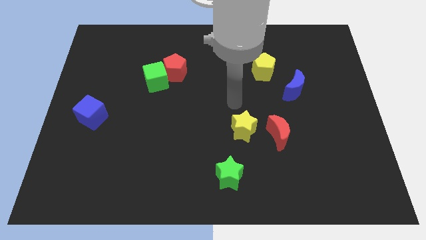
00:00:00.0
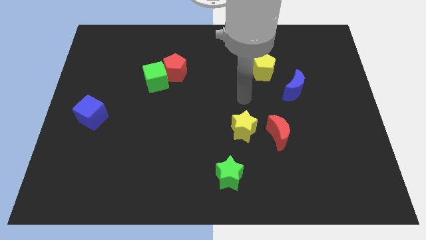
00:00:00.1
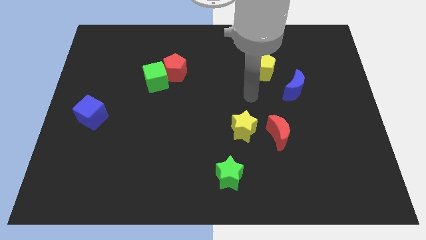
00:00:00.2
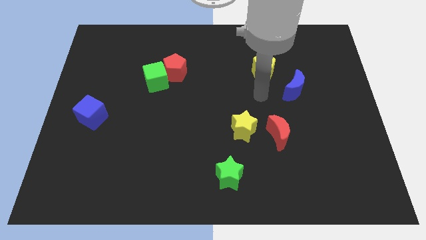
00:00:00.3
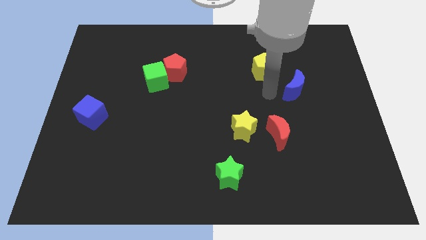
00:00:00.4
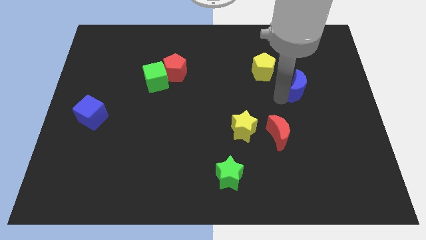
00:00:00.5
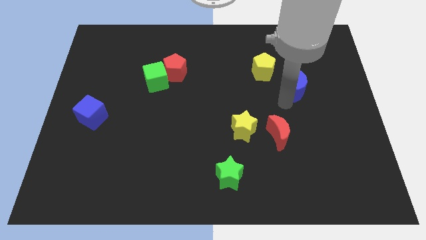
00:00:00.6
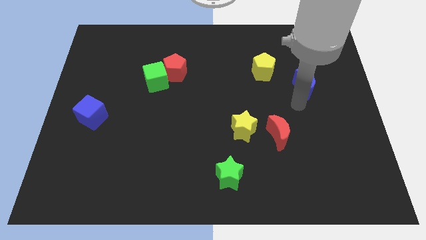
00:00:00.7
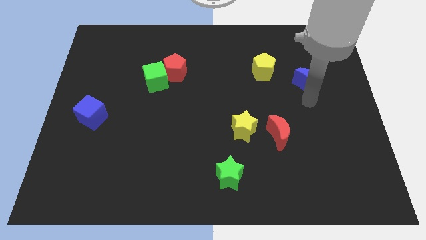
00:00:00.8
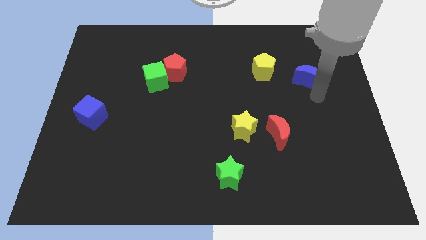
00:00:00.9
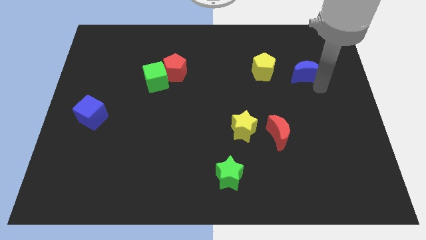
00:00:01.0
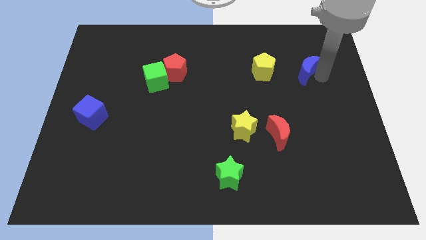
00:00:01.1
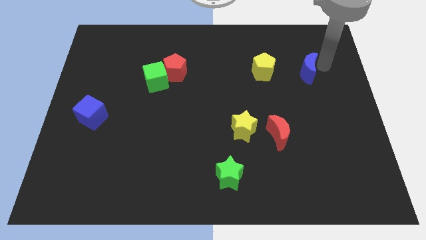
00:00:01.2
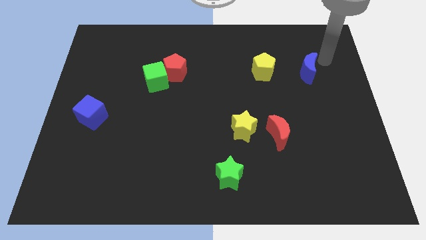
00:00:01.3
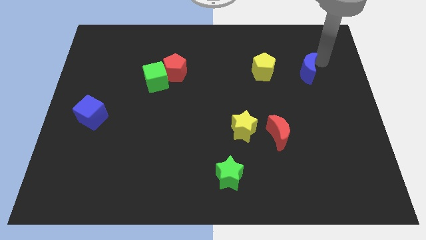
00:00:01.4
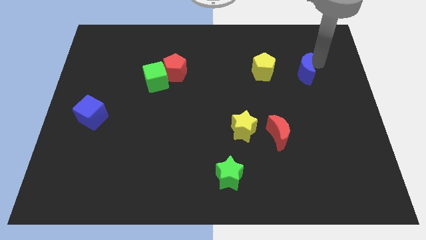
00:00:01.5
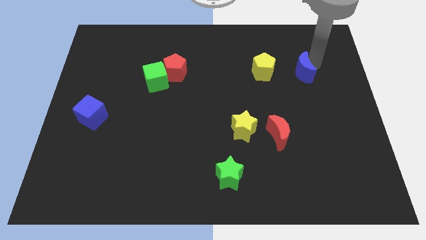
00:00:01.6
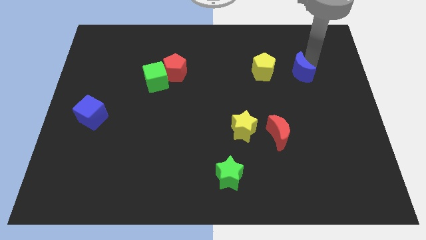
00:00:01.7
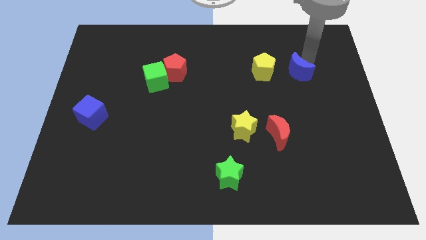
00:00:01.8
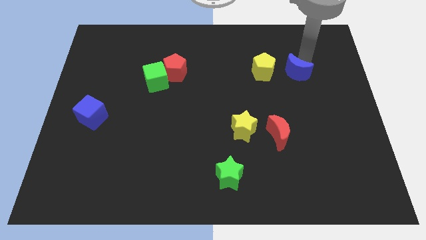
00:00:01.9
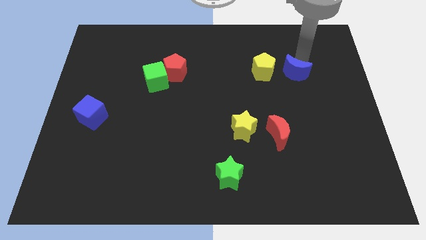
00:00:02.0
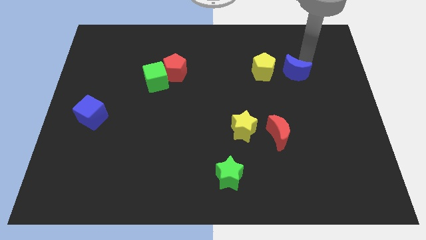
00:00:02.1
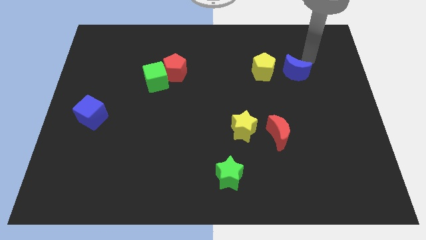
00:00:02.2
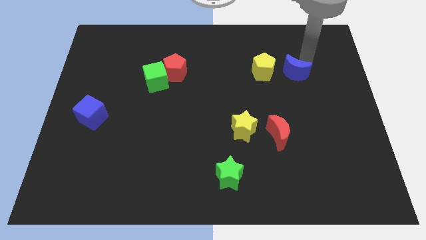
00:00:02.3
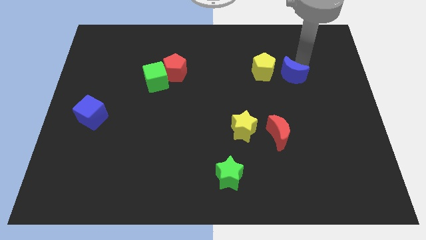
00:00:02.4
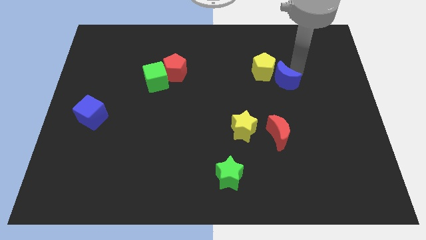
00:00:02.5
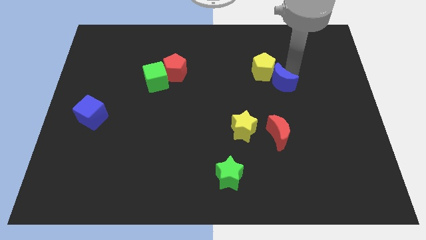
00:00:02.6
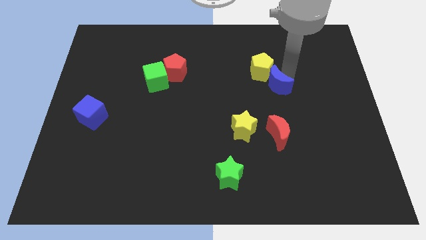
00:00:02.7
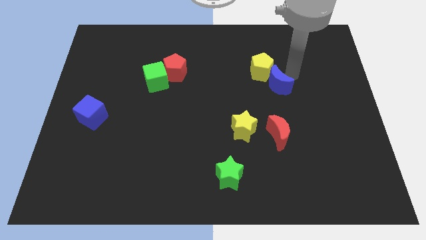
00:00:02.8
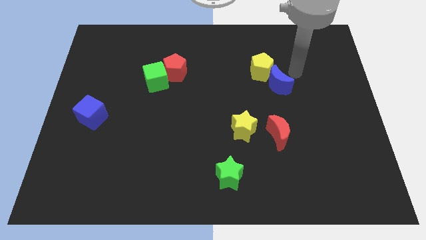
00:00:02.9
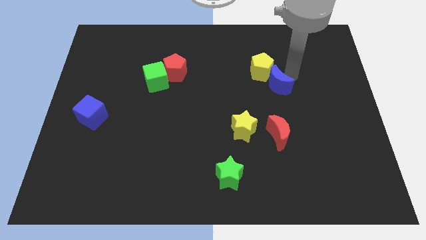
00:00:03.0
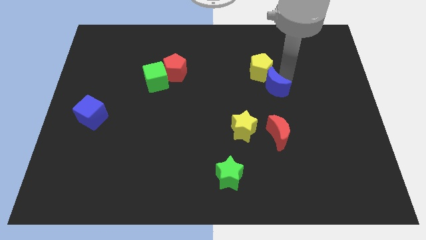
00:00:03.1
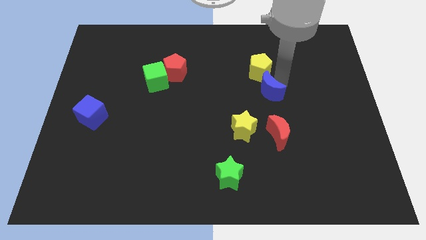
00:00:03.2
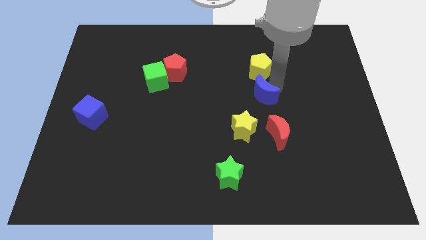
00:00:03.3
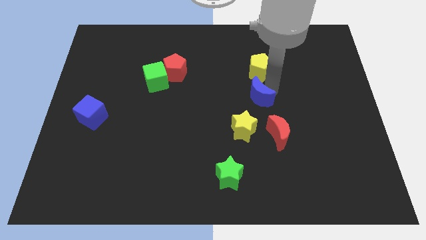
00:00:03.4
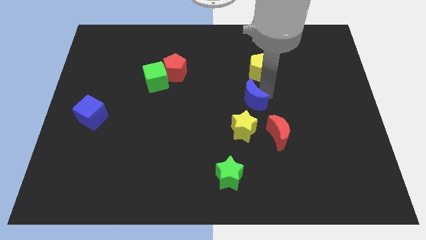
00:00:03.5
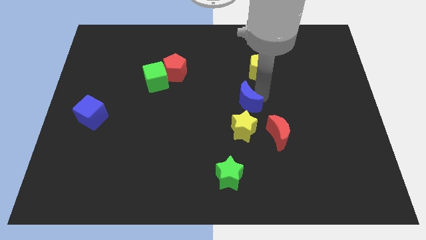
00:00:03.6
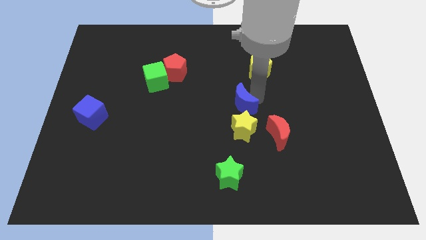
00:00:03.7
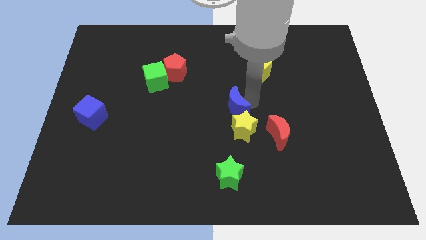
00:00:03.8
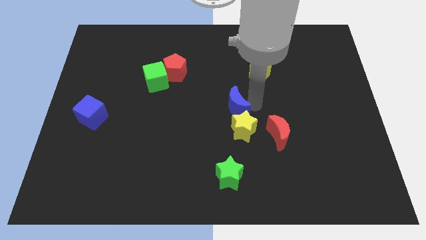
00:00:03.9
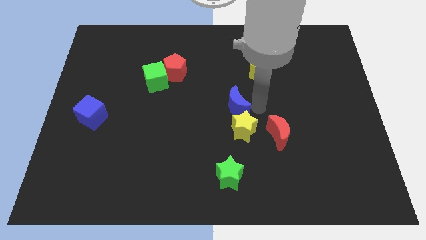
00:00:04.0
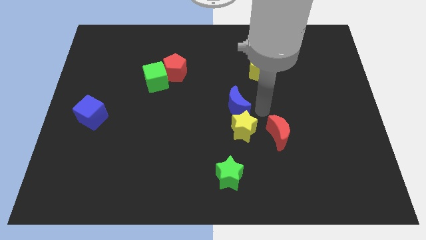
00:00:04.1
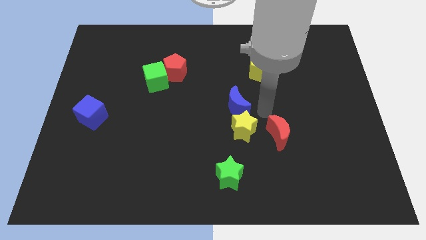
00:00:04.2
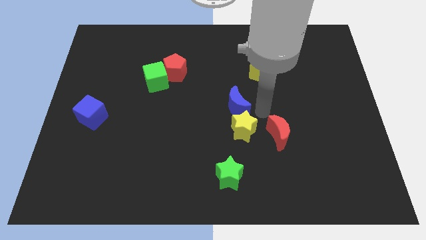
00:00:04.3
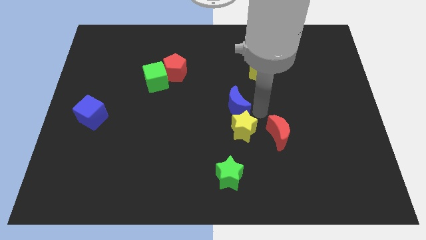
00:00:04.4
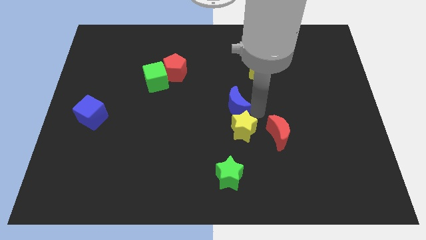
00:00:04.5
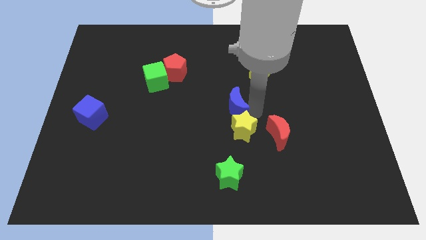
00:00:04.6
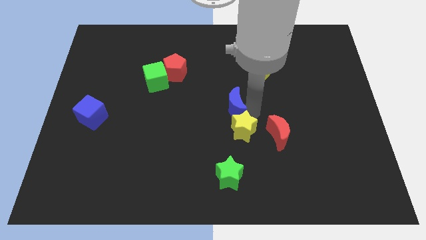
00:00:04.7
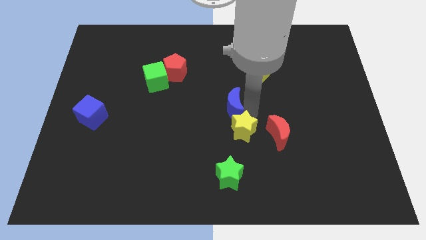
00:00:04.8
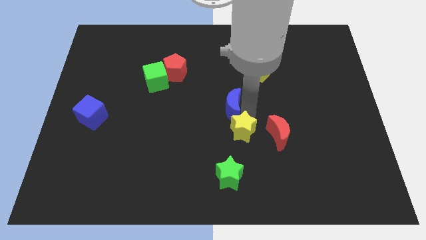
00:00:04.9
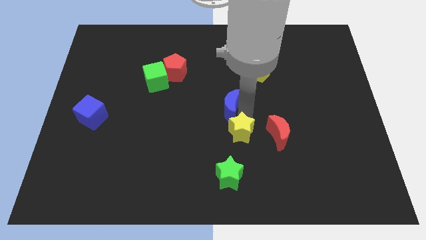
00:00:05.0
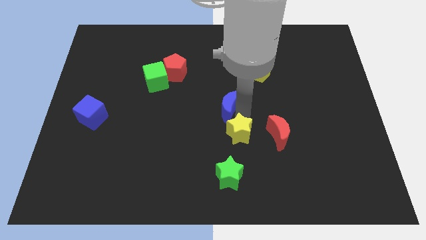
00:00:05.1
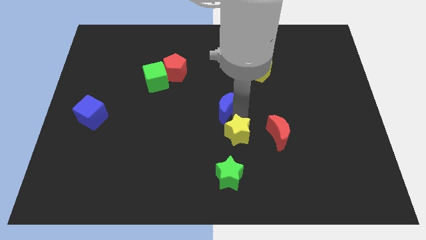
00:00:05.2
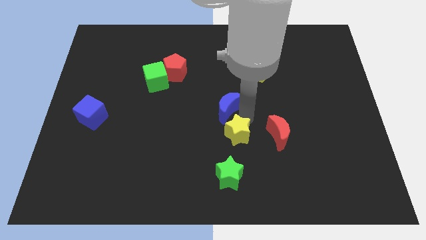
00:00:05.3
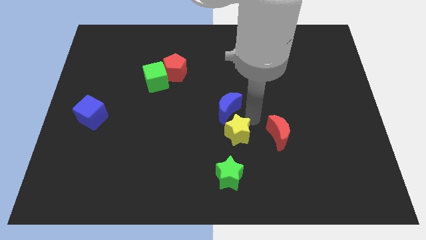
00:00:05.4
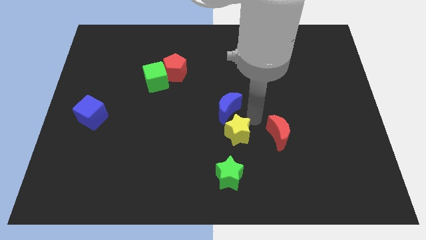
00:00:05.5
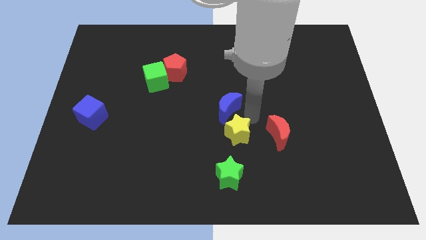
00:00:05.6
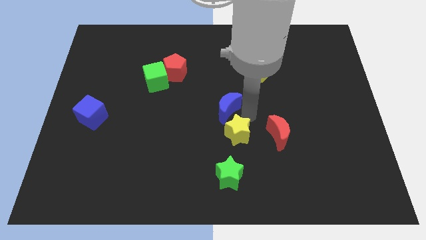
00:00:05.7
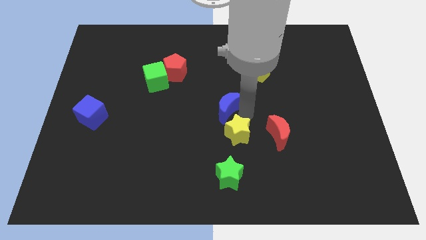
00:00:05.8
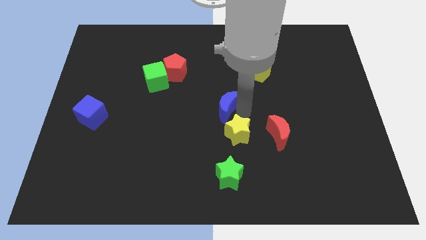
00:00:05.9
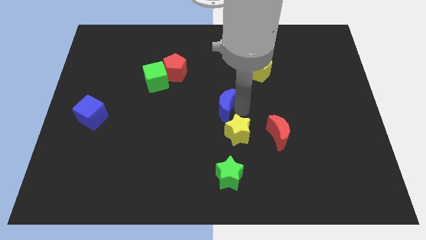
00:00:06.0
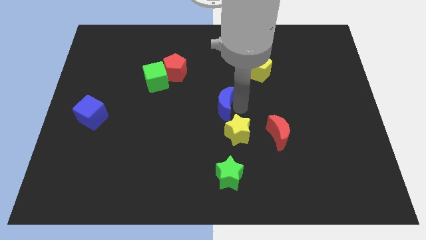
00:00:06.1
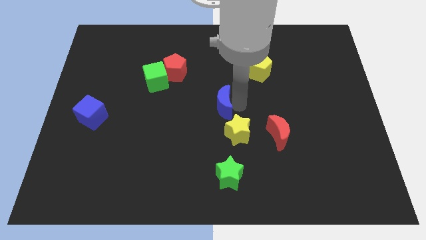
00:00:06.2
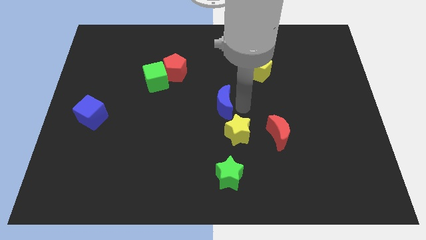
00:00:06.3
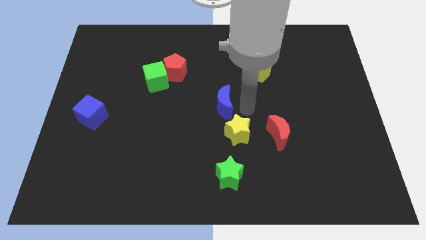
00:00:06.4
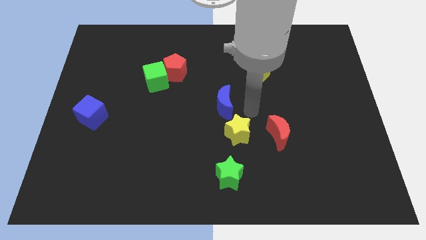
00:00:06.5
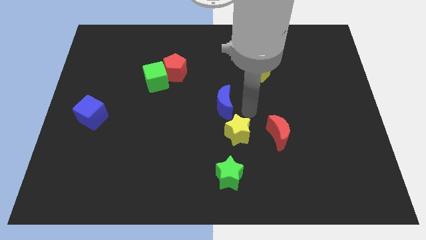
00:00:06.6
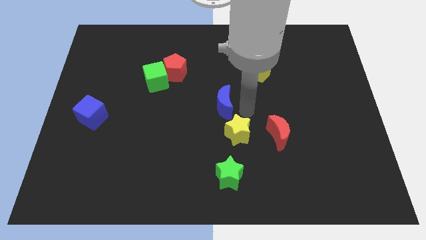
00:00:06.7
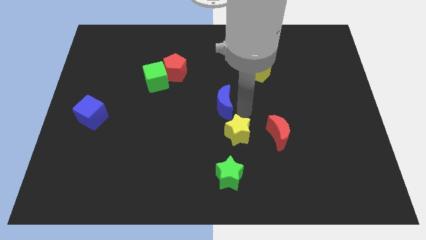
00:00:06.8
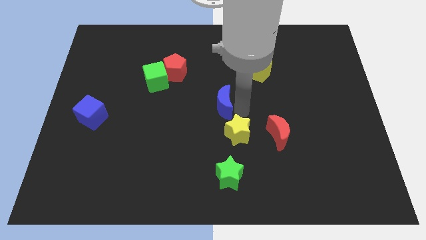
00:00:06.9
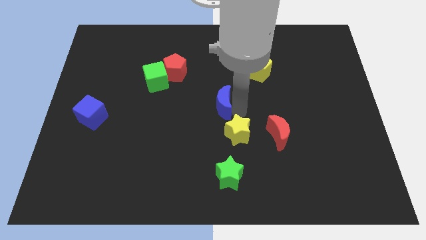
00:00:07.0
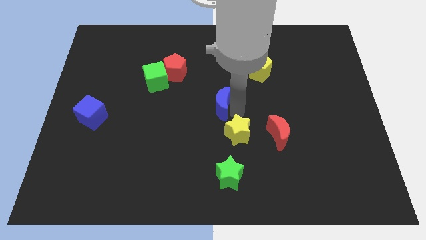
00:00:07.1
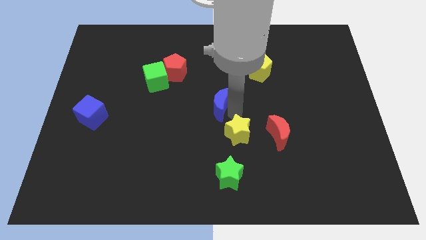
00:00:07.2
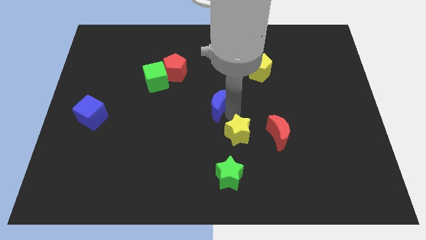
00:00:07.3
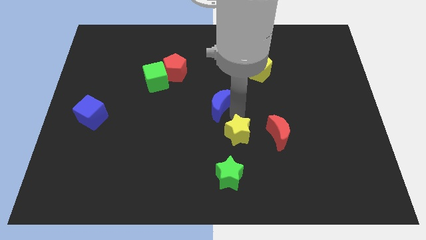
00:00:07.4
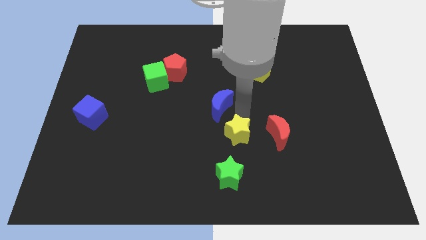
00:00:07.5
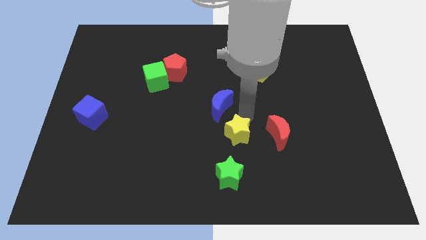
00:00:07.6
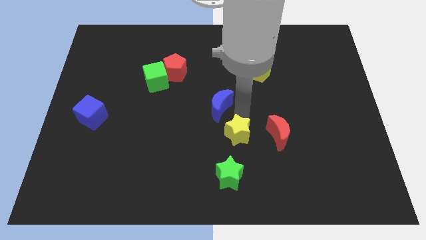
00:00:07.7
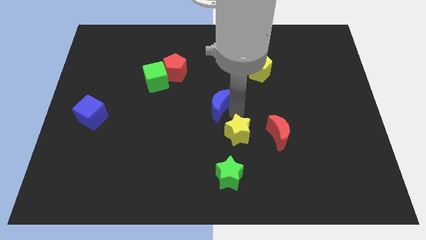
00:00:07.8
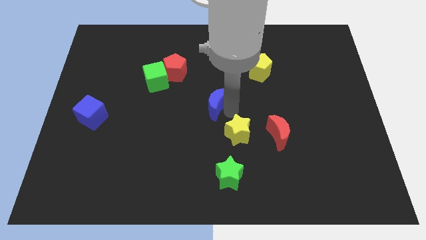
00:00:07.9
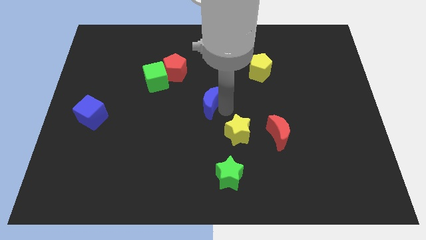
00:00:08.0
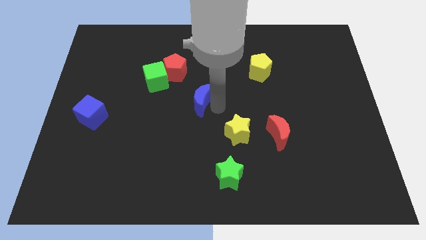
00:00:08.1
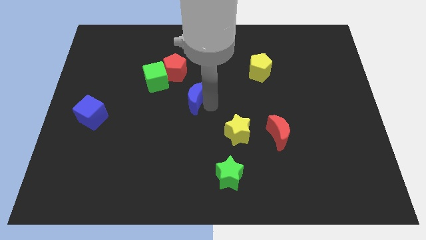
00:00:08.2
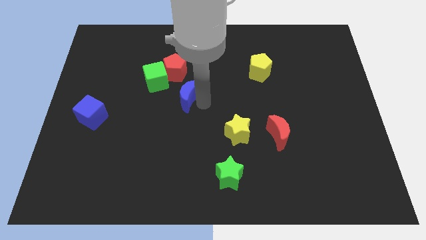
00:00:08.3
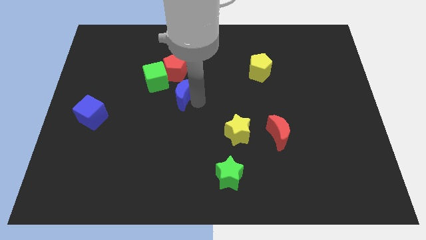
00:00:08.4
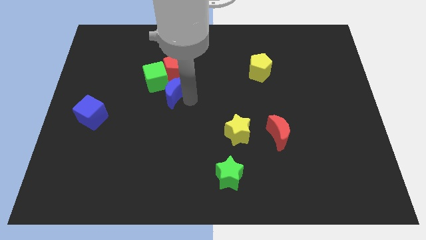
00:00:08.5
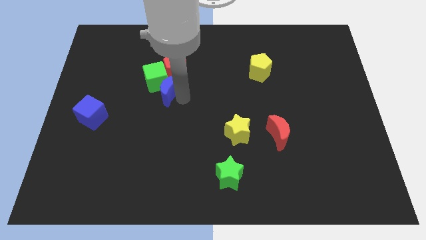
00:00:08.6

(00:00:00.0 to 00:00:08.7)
push the blue moon close to the green cube
